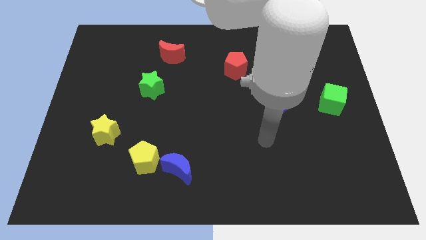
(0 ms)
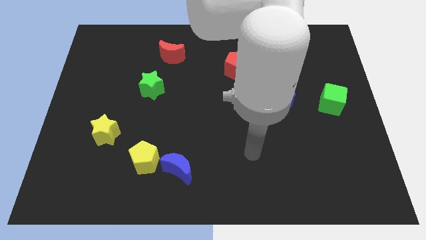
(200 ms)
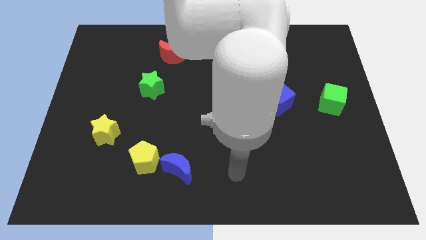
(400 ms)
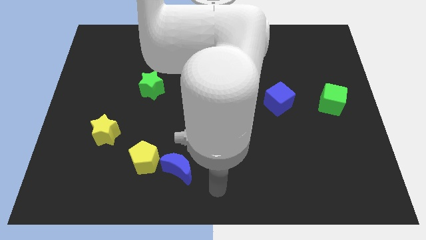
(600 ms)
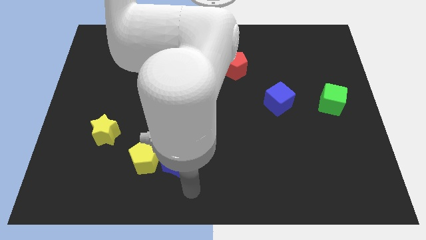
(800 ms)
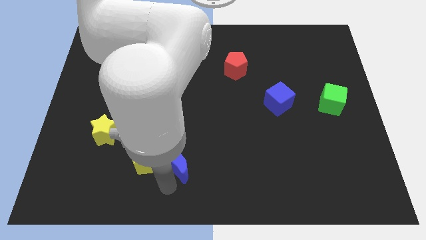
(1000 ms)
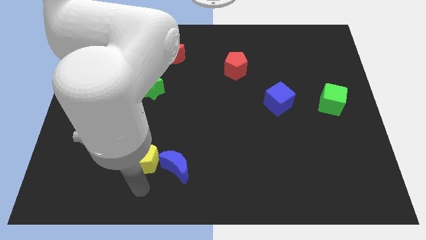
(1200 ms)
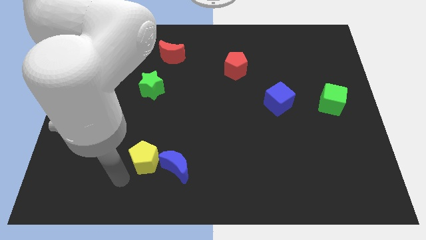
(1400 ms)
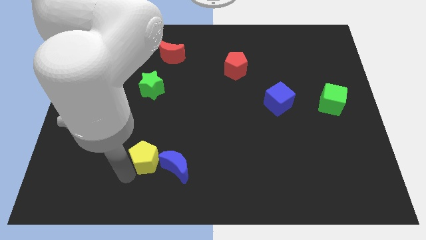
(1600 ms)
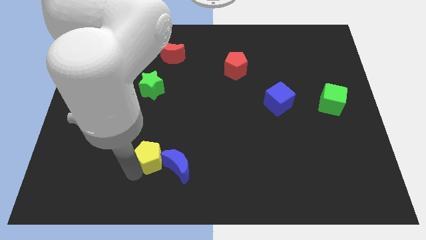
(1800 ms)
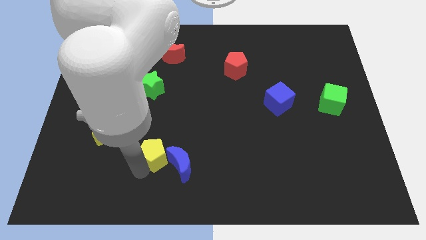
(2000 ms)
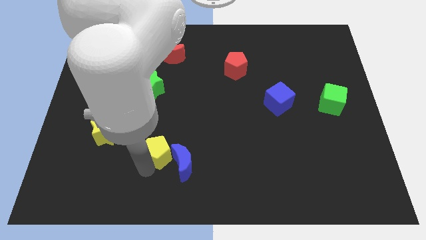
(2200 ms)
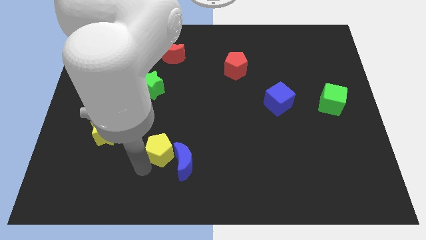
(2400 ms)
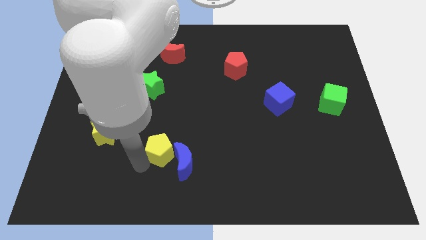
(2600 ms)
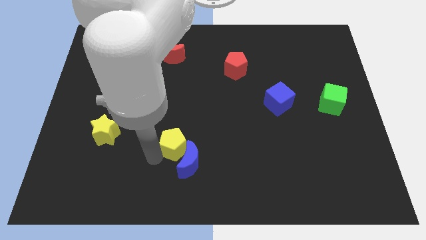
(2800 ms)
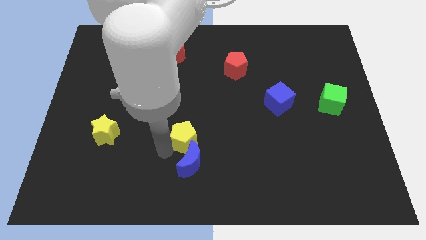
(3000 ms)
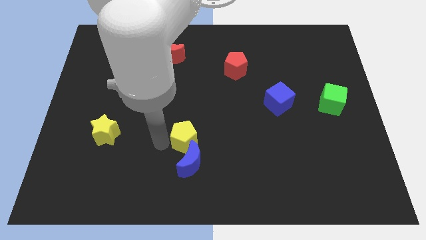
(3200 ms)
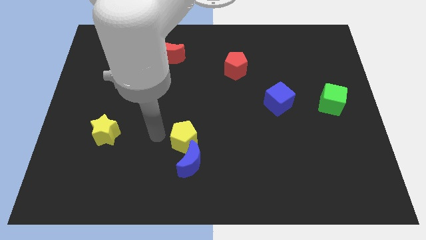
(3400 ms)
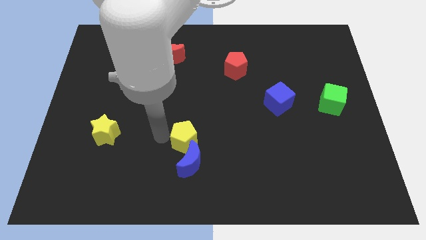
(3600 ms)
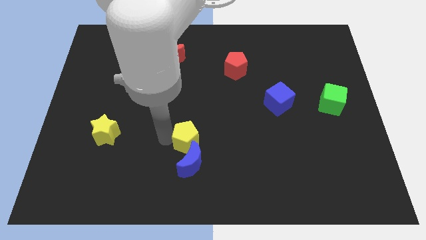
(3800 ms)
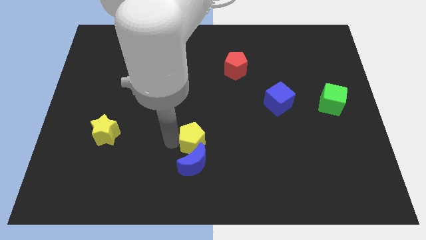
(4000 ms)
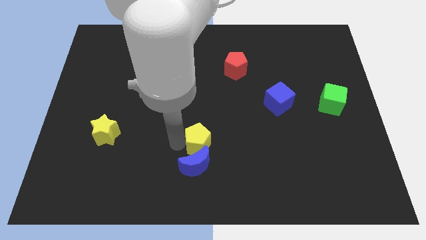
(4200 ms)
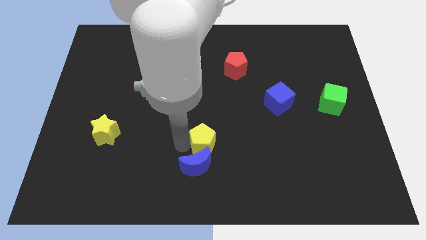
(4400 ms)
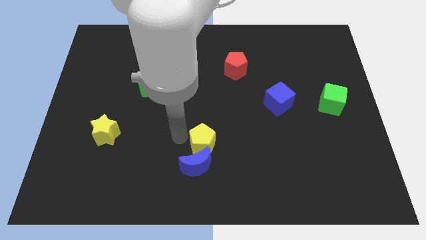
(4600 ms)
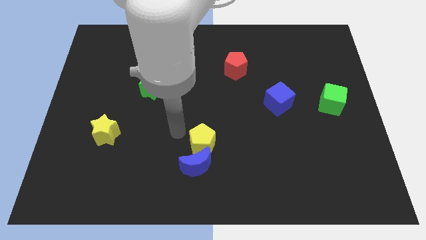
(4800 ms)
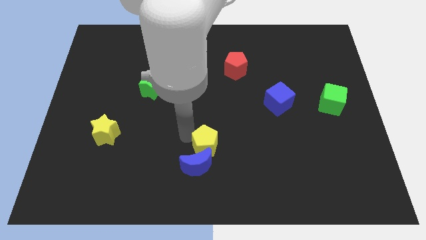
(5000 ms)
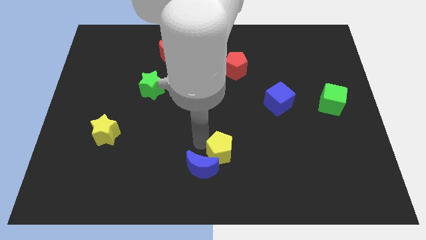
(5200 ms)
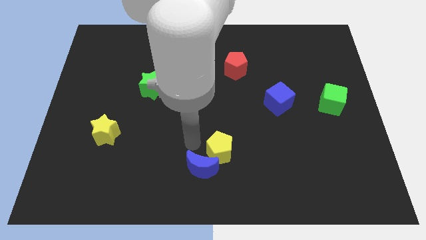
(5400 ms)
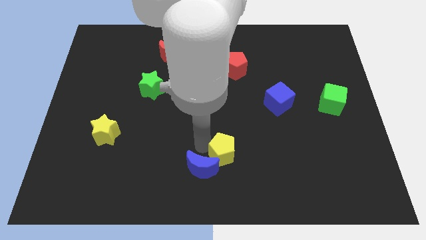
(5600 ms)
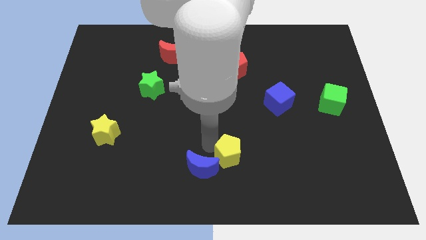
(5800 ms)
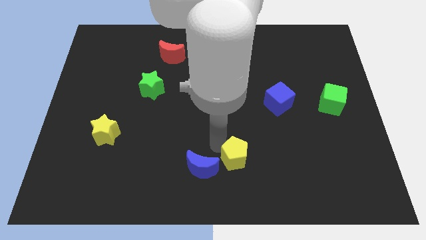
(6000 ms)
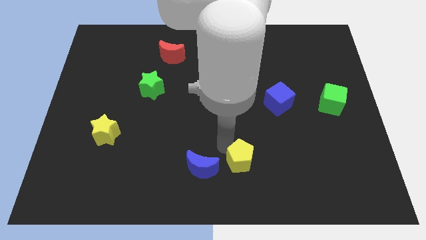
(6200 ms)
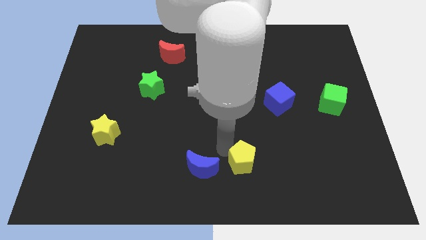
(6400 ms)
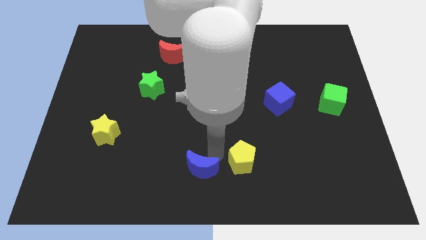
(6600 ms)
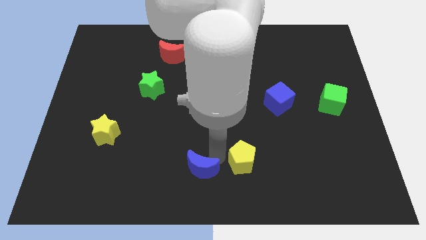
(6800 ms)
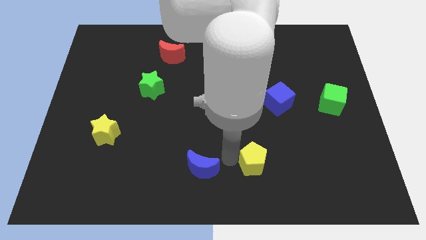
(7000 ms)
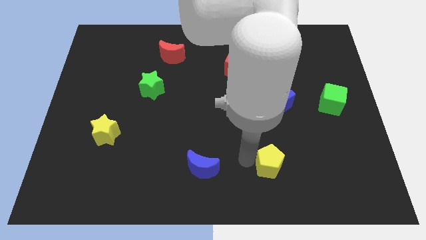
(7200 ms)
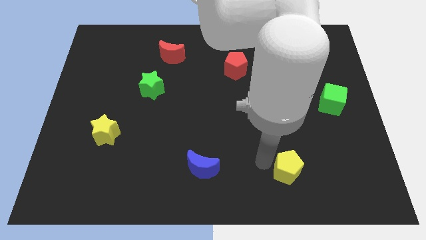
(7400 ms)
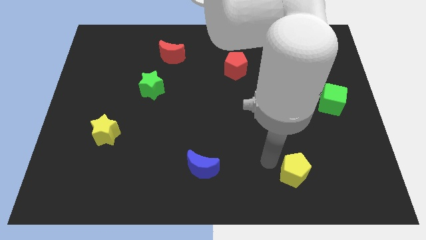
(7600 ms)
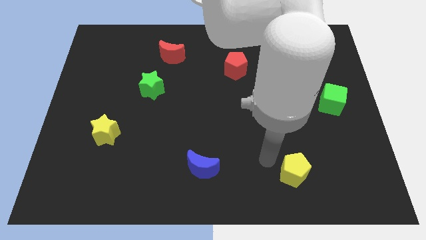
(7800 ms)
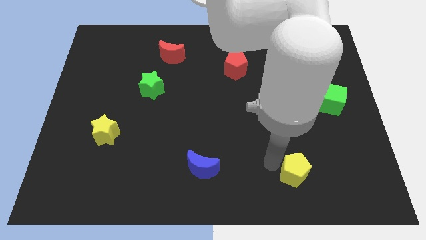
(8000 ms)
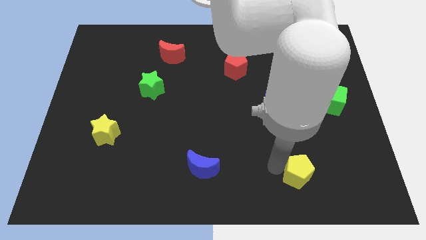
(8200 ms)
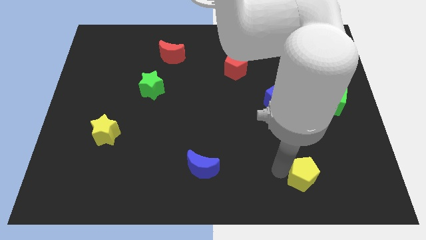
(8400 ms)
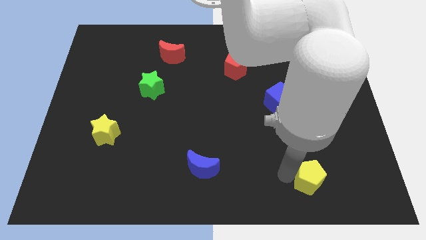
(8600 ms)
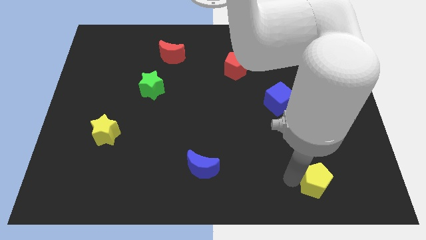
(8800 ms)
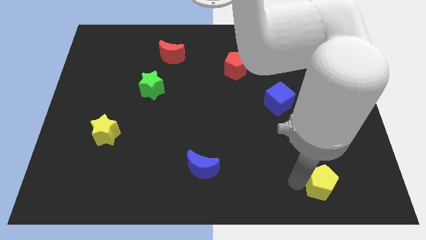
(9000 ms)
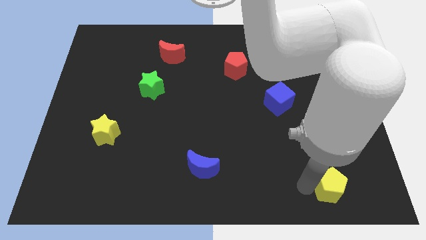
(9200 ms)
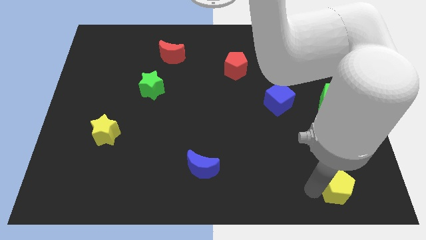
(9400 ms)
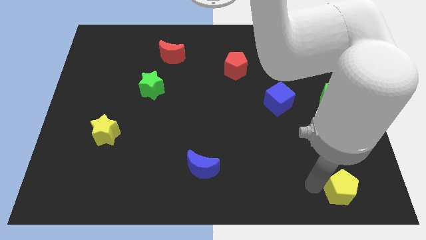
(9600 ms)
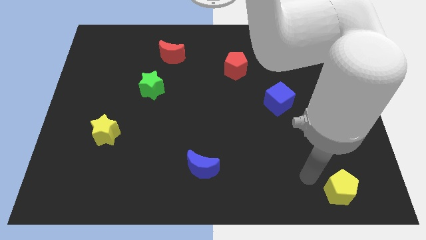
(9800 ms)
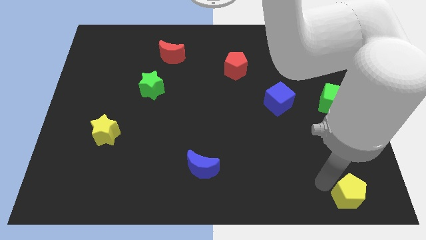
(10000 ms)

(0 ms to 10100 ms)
move the yellow pentagon to the bottom right corner

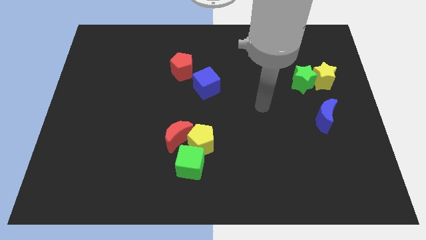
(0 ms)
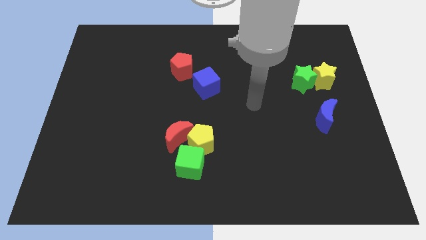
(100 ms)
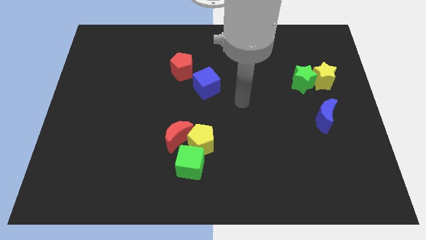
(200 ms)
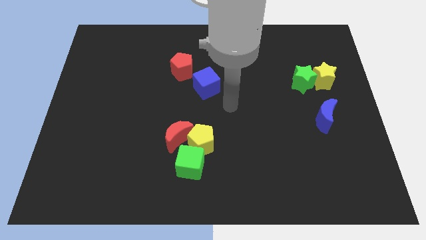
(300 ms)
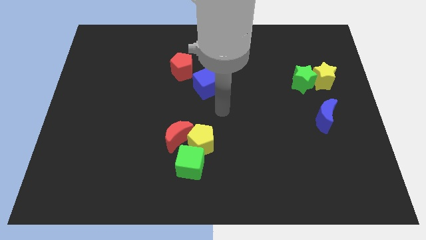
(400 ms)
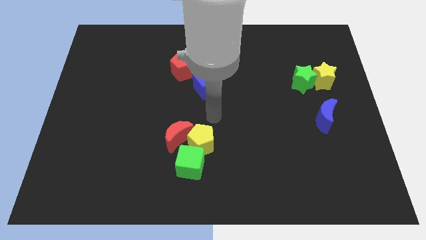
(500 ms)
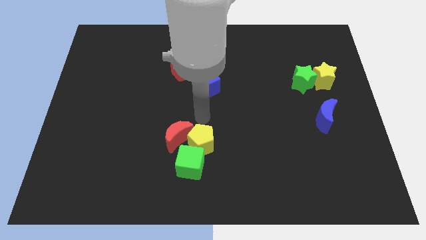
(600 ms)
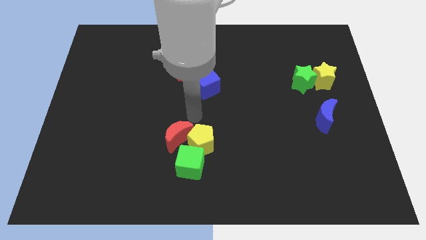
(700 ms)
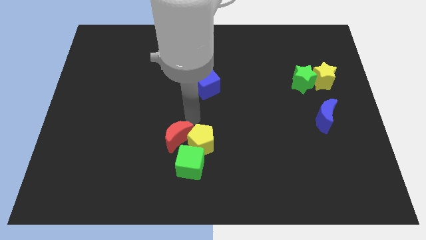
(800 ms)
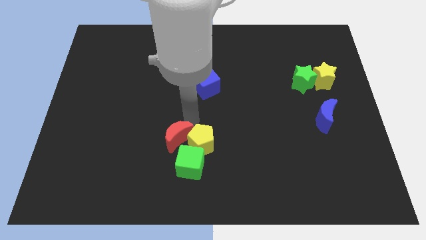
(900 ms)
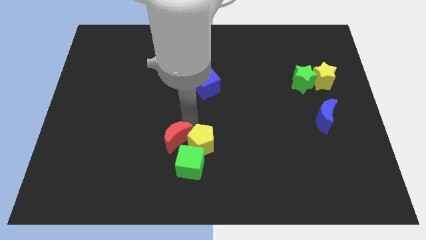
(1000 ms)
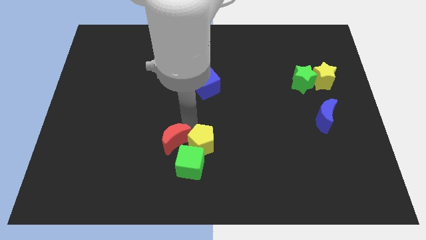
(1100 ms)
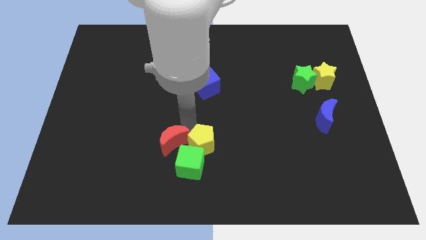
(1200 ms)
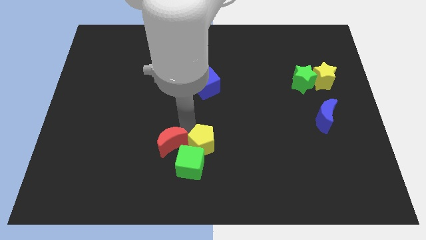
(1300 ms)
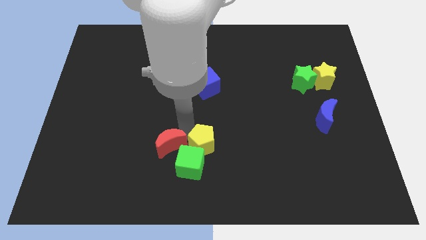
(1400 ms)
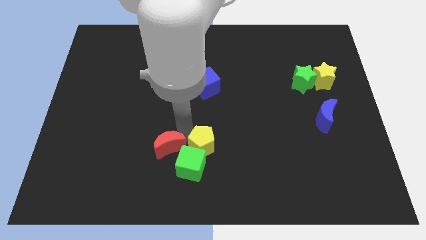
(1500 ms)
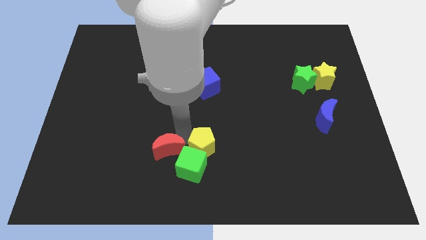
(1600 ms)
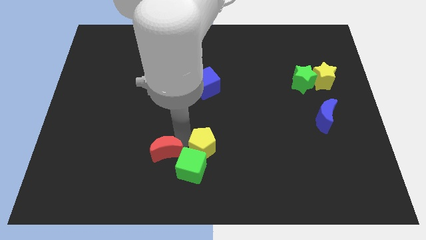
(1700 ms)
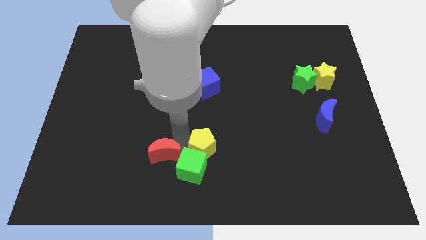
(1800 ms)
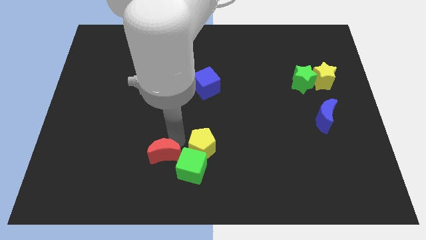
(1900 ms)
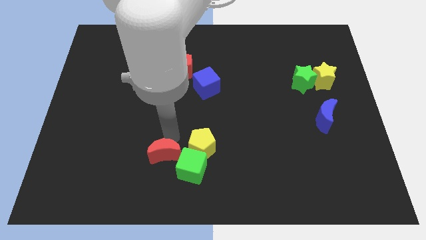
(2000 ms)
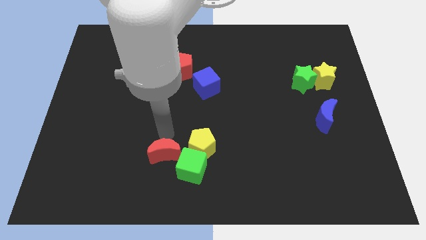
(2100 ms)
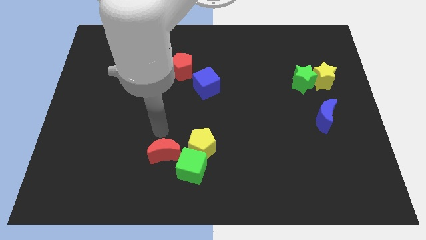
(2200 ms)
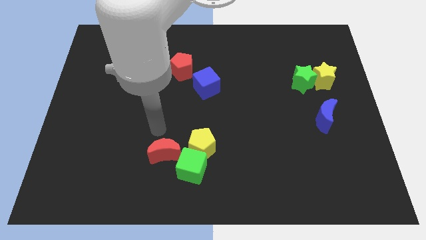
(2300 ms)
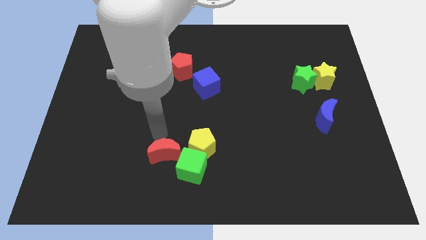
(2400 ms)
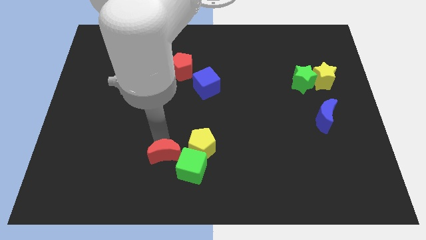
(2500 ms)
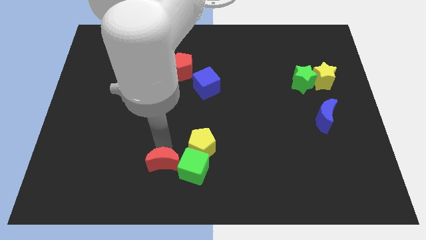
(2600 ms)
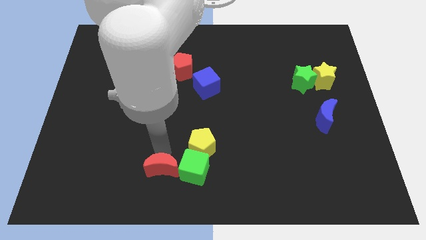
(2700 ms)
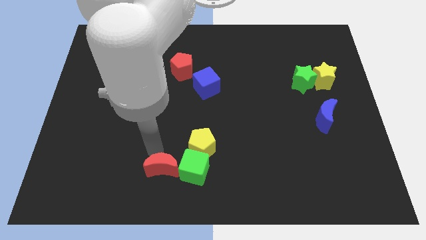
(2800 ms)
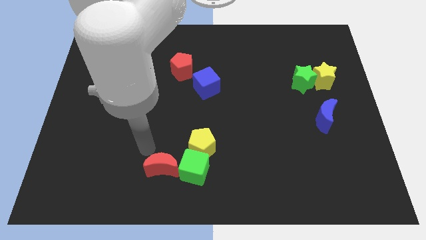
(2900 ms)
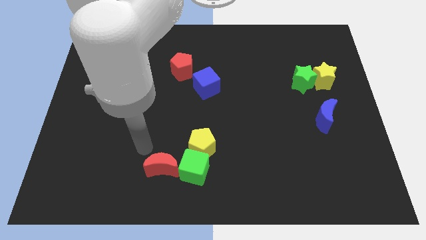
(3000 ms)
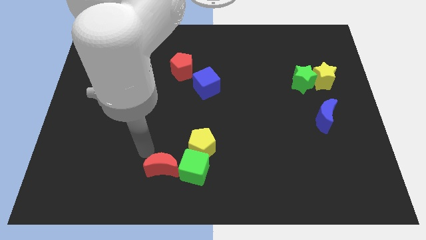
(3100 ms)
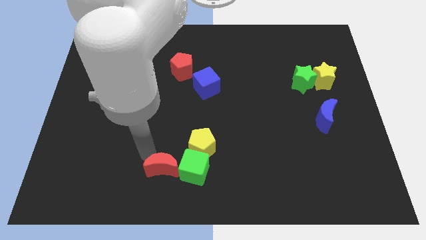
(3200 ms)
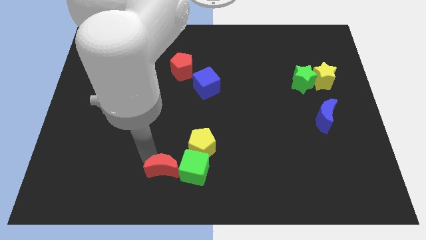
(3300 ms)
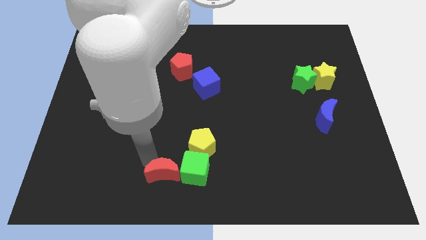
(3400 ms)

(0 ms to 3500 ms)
put the red moon to the bottom
